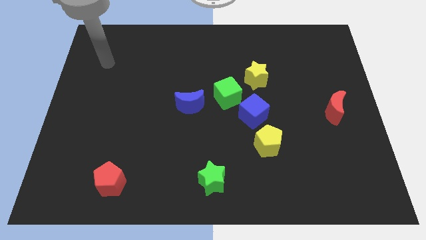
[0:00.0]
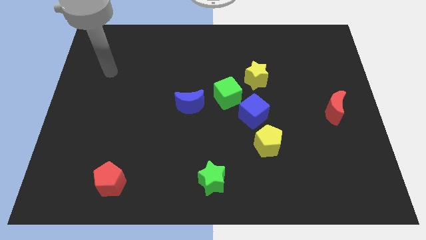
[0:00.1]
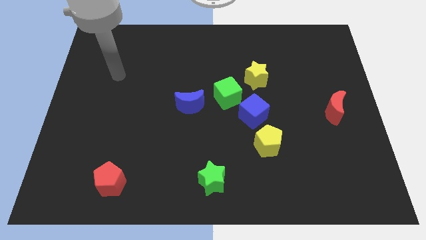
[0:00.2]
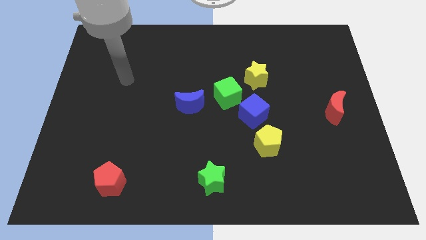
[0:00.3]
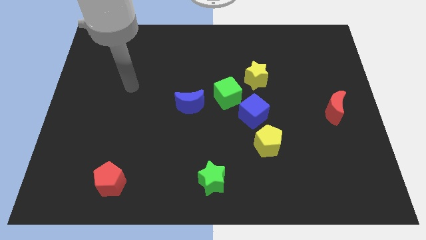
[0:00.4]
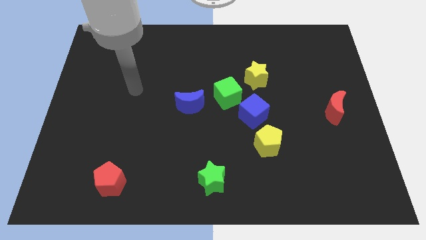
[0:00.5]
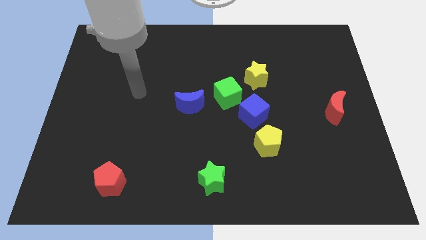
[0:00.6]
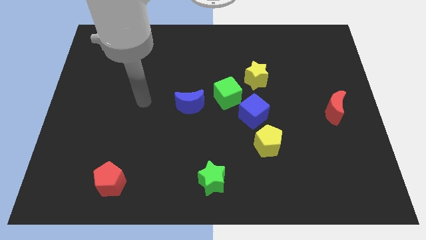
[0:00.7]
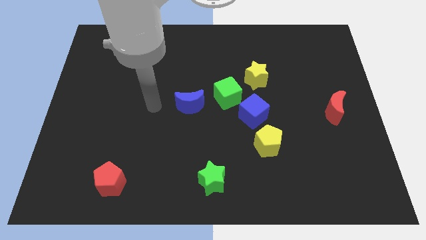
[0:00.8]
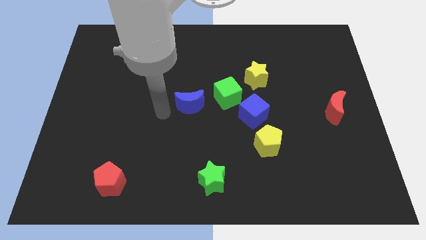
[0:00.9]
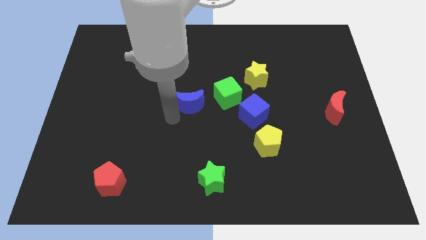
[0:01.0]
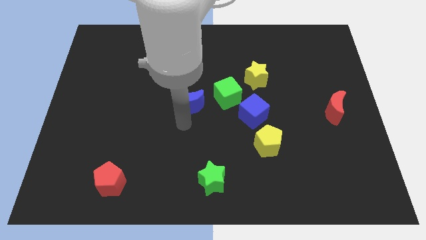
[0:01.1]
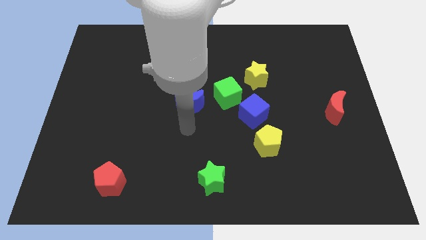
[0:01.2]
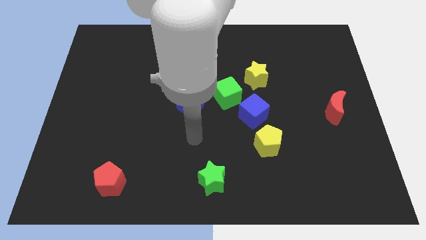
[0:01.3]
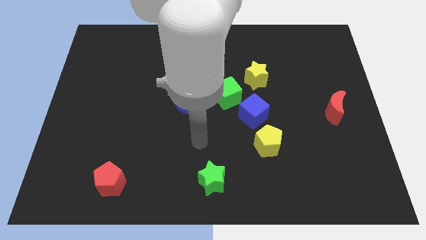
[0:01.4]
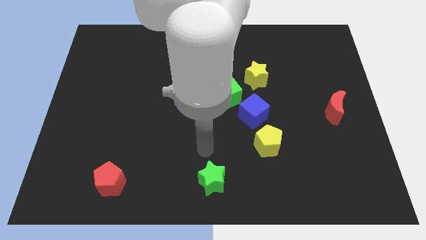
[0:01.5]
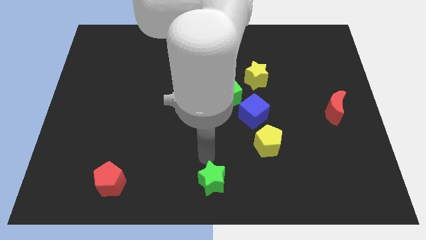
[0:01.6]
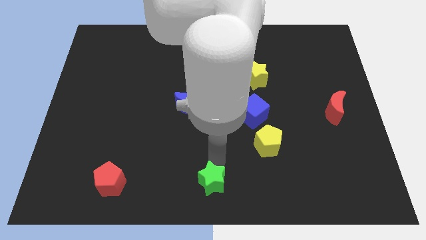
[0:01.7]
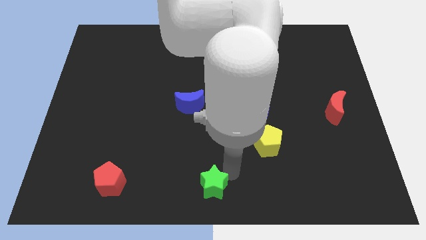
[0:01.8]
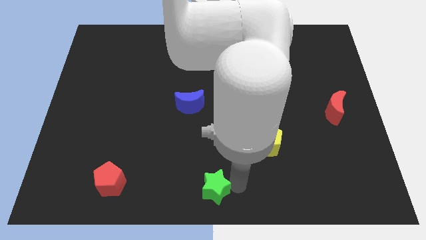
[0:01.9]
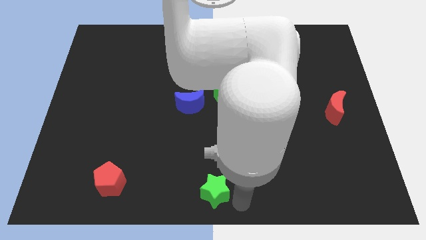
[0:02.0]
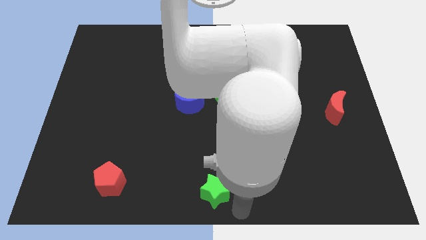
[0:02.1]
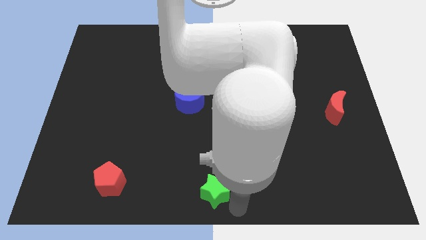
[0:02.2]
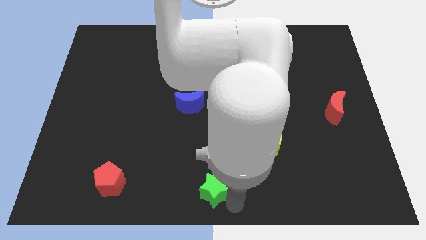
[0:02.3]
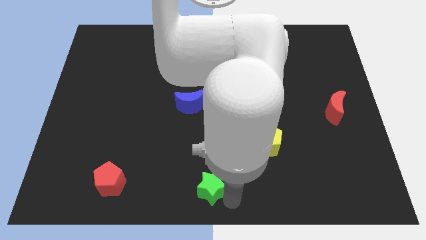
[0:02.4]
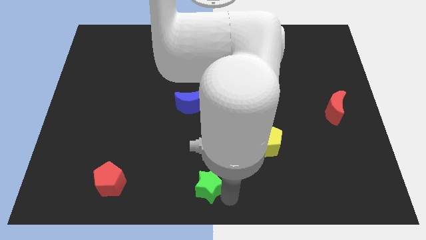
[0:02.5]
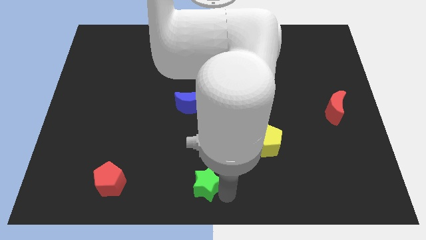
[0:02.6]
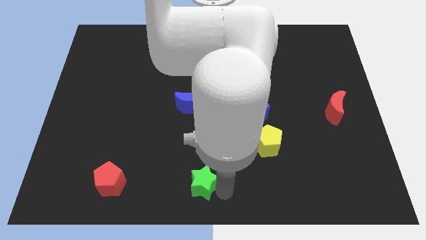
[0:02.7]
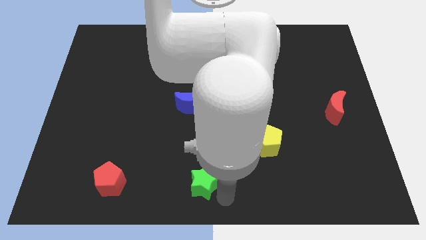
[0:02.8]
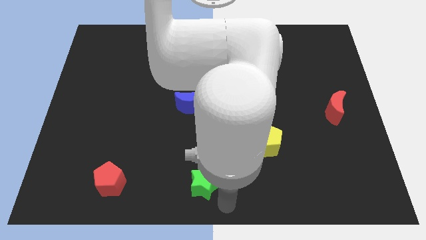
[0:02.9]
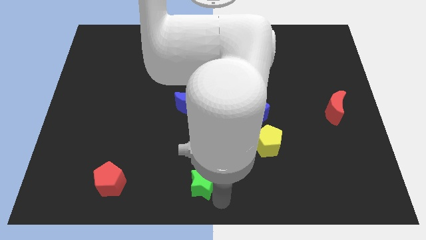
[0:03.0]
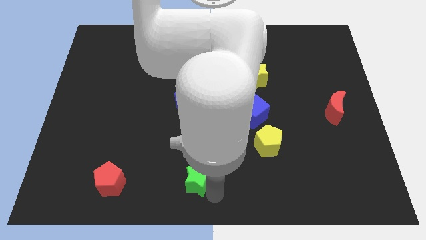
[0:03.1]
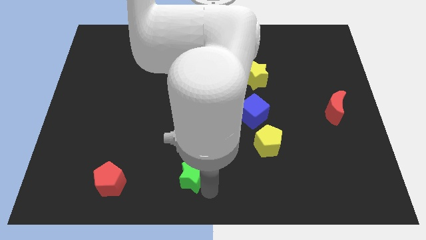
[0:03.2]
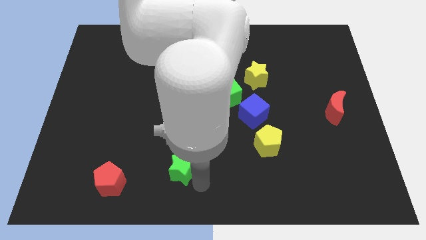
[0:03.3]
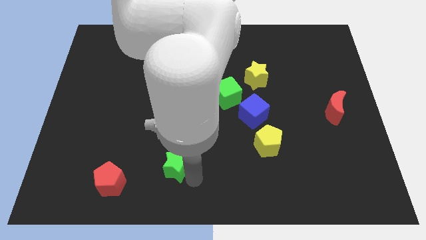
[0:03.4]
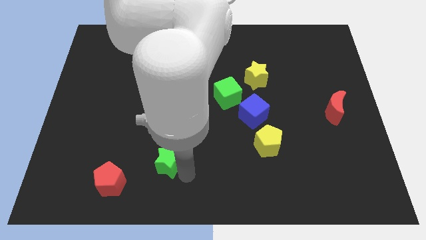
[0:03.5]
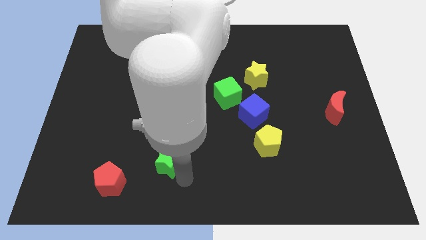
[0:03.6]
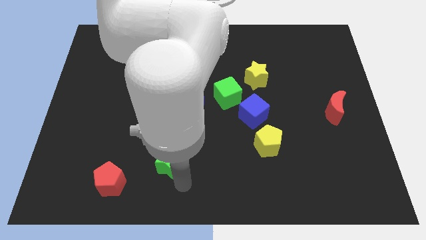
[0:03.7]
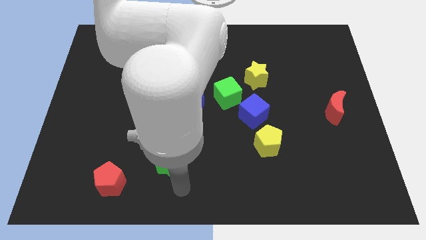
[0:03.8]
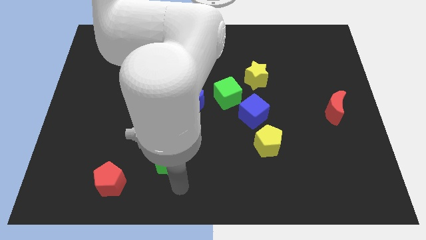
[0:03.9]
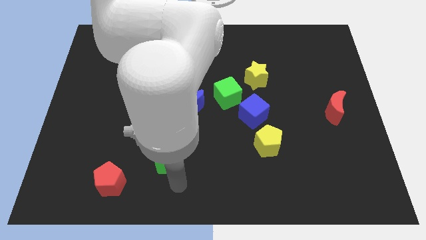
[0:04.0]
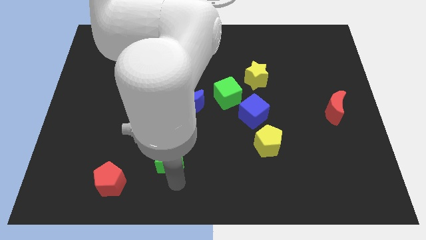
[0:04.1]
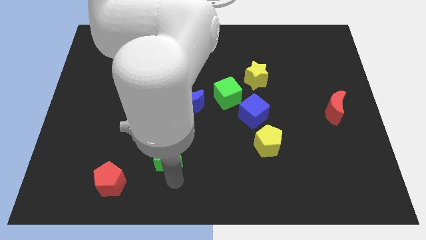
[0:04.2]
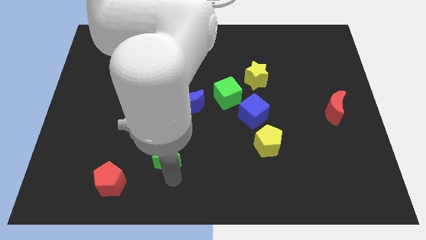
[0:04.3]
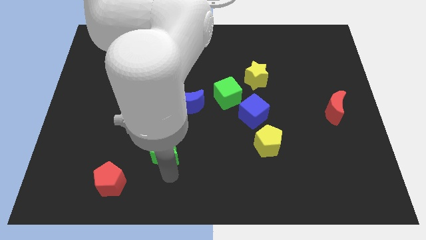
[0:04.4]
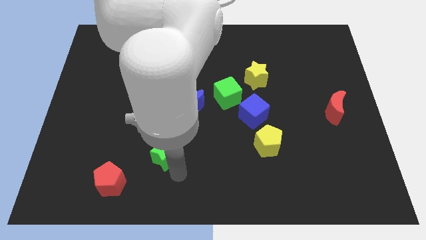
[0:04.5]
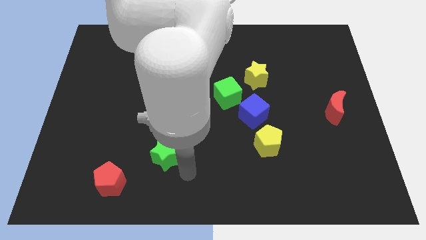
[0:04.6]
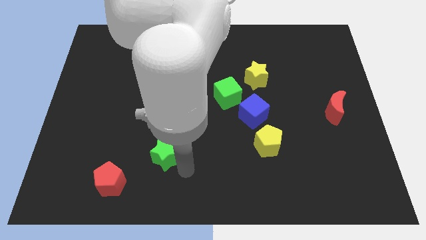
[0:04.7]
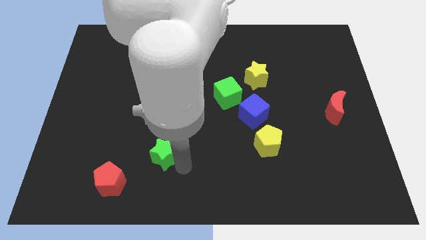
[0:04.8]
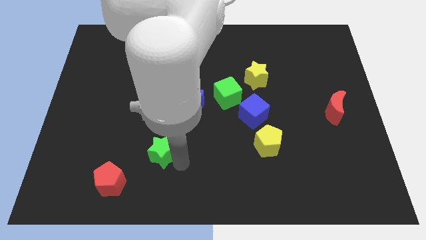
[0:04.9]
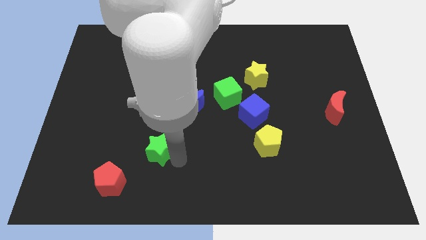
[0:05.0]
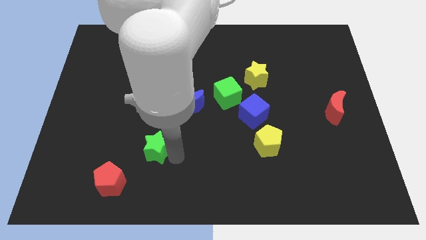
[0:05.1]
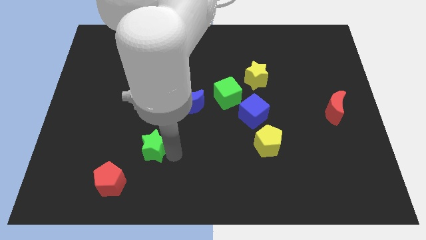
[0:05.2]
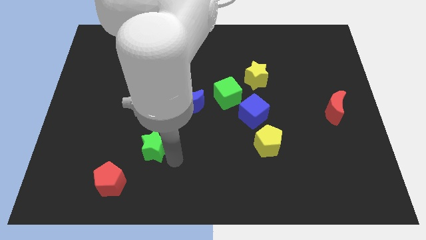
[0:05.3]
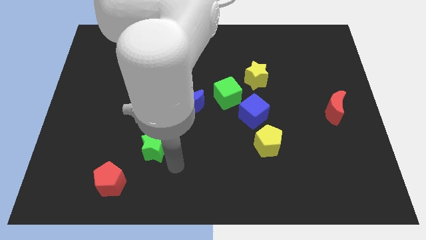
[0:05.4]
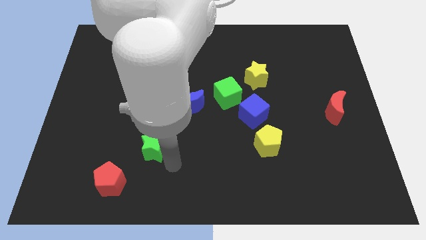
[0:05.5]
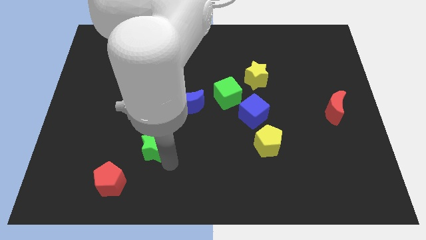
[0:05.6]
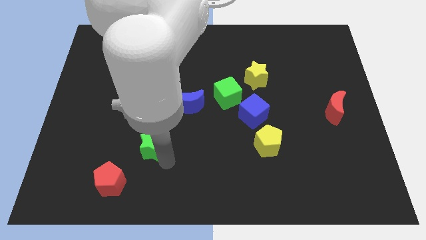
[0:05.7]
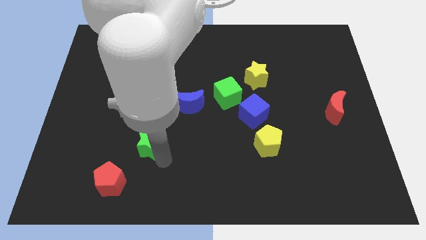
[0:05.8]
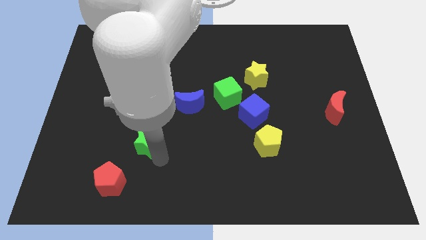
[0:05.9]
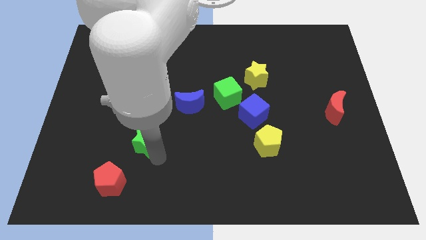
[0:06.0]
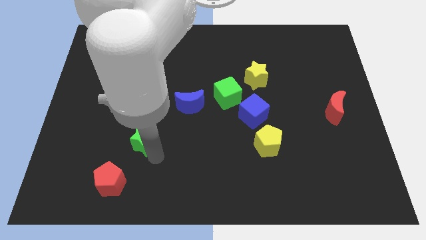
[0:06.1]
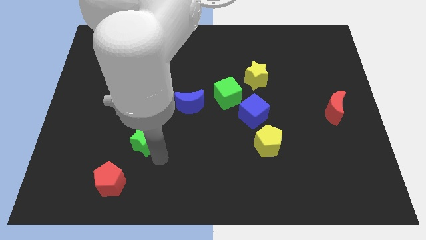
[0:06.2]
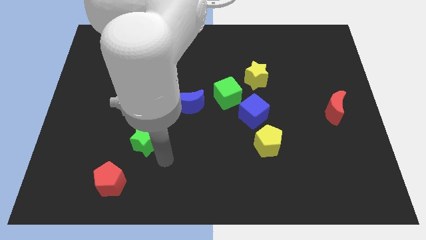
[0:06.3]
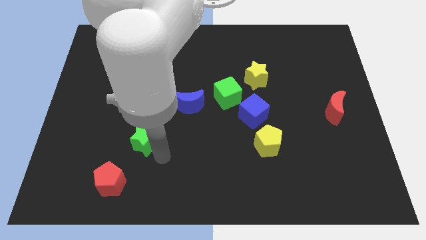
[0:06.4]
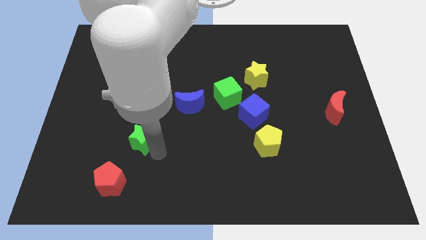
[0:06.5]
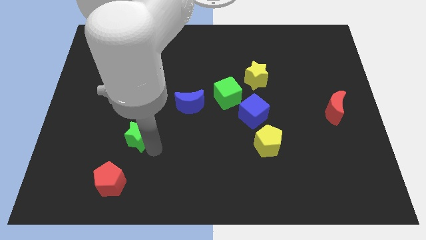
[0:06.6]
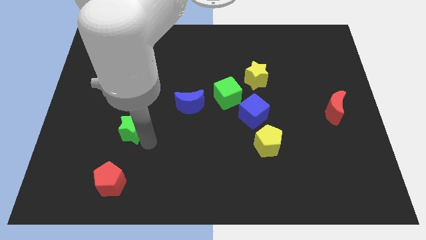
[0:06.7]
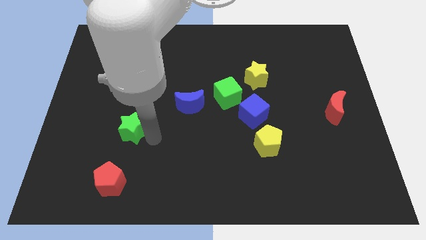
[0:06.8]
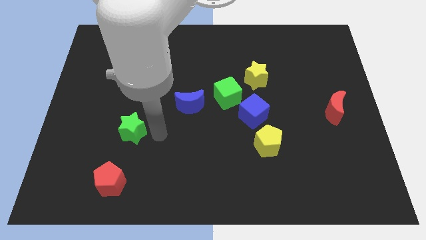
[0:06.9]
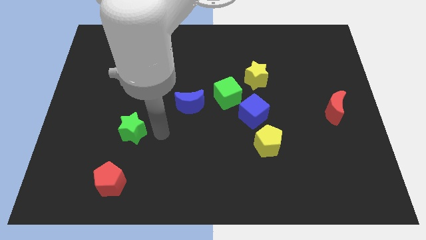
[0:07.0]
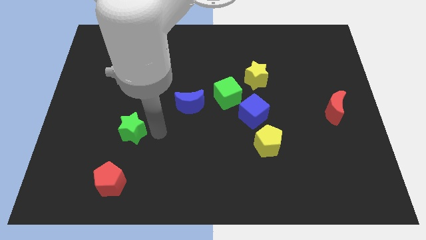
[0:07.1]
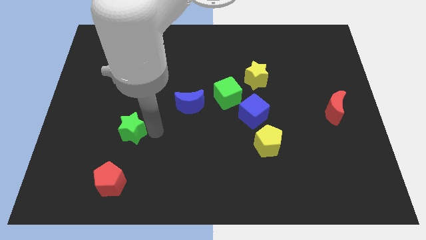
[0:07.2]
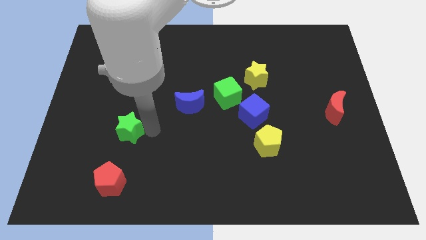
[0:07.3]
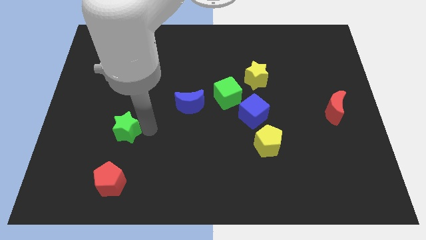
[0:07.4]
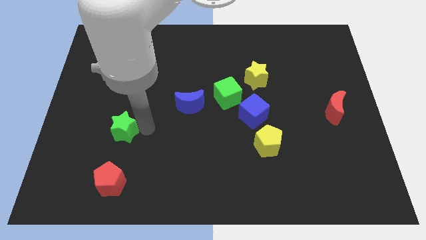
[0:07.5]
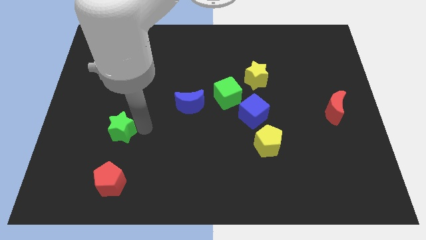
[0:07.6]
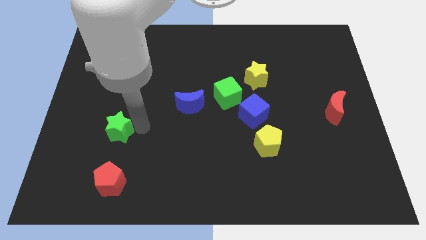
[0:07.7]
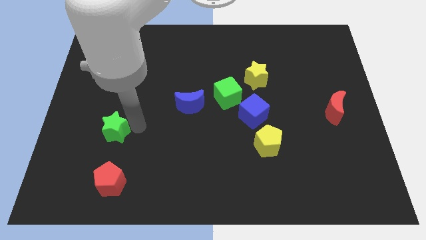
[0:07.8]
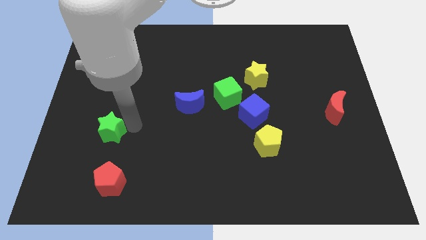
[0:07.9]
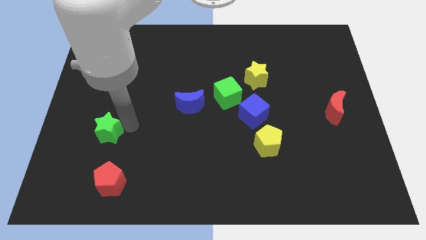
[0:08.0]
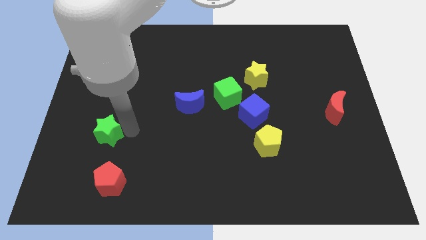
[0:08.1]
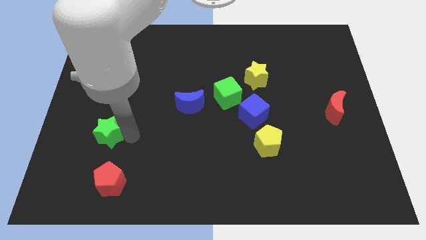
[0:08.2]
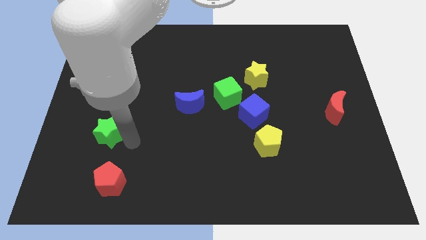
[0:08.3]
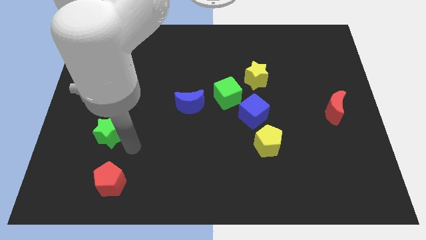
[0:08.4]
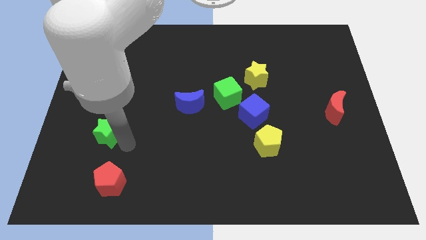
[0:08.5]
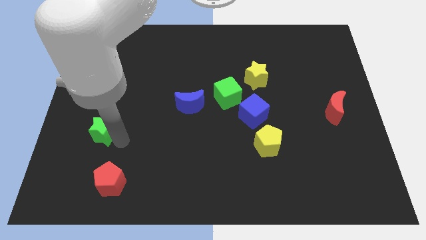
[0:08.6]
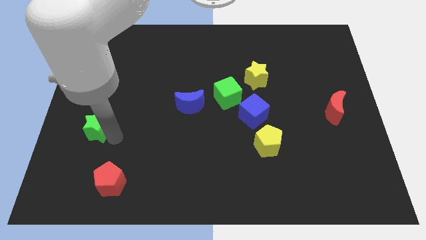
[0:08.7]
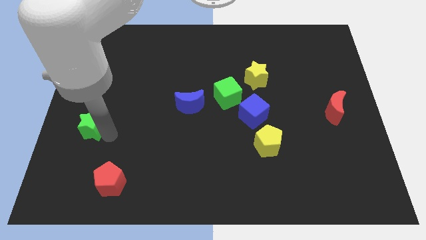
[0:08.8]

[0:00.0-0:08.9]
slide the green star to the left side
